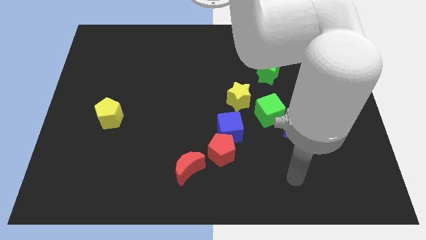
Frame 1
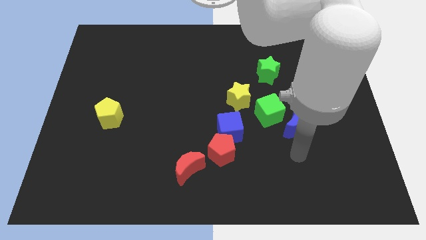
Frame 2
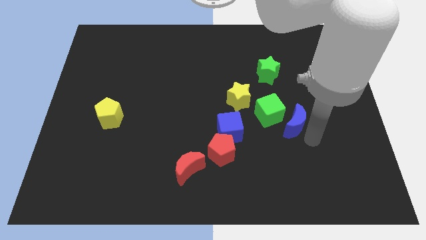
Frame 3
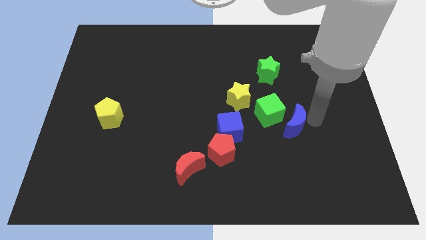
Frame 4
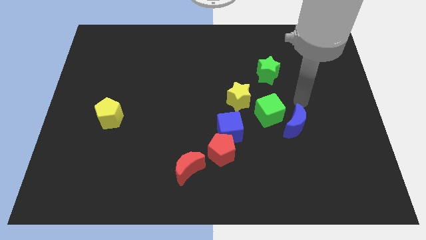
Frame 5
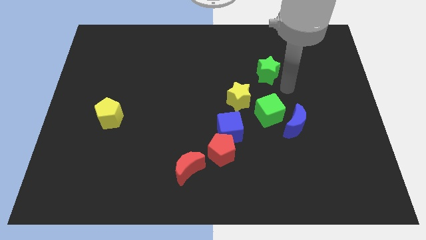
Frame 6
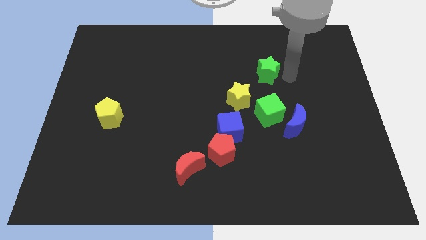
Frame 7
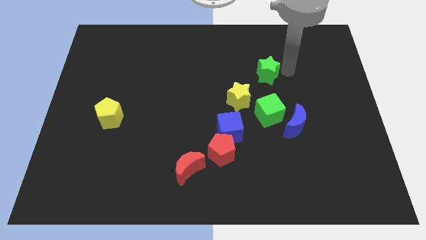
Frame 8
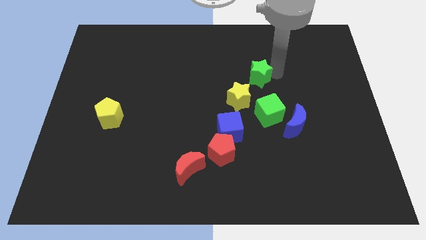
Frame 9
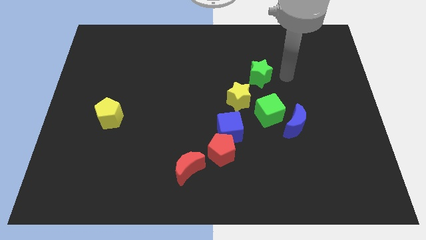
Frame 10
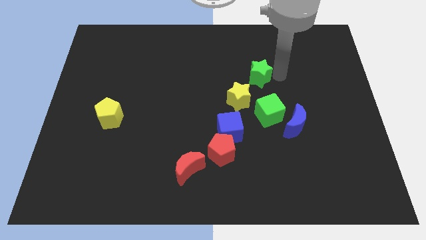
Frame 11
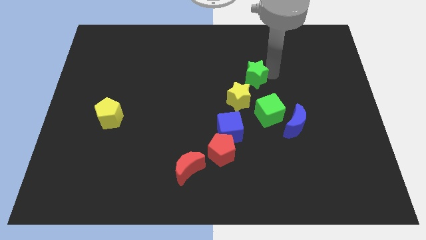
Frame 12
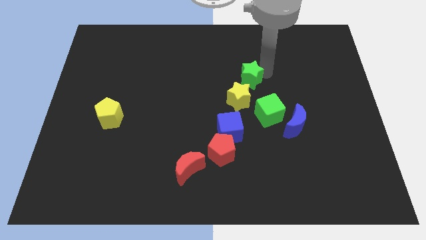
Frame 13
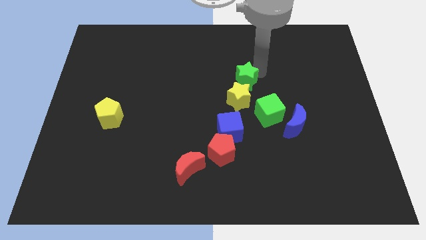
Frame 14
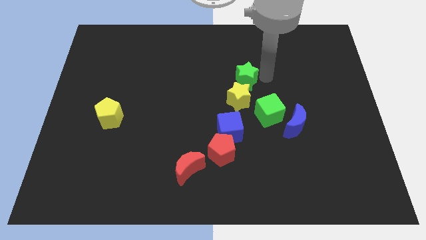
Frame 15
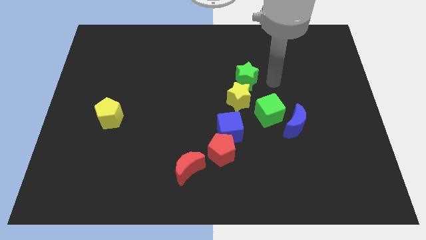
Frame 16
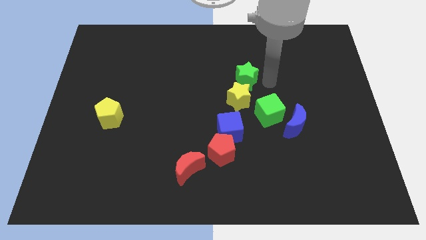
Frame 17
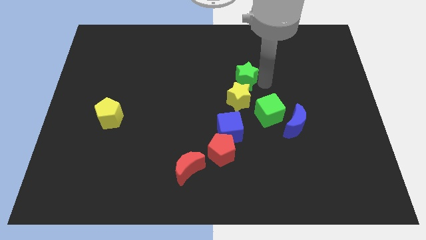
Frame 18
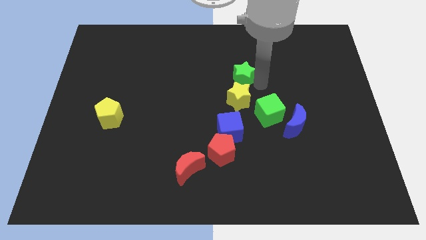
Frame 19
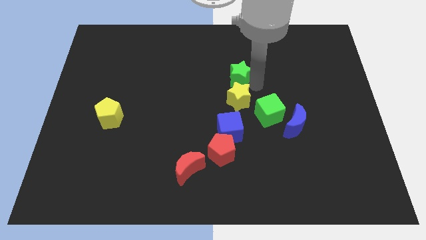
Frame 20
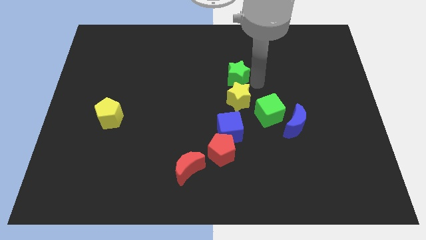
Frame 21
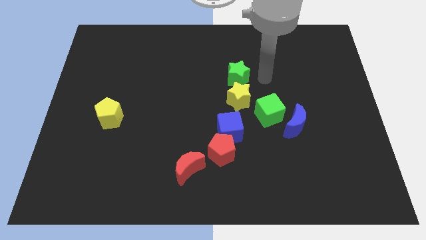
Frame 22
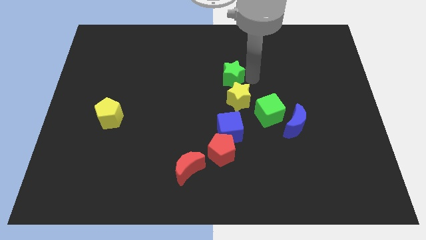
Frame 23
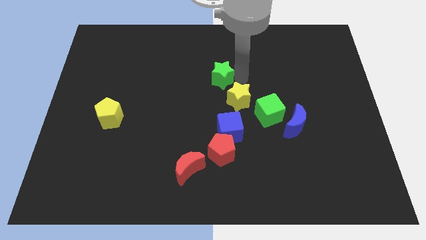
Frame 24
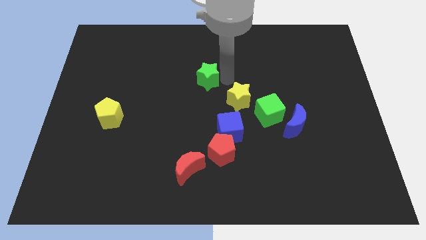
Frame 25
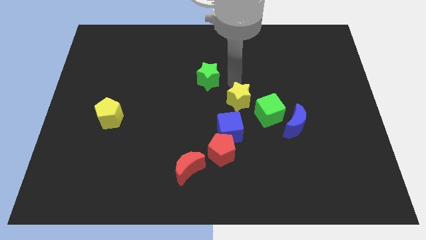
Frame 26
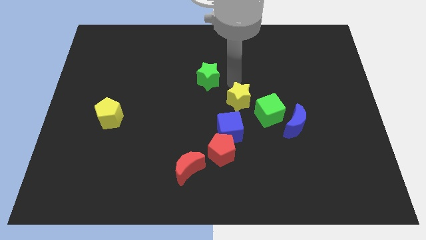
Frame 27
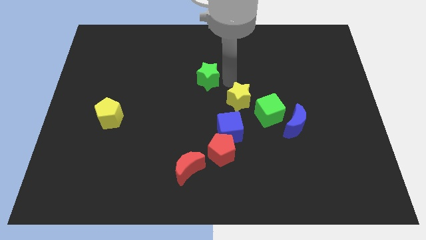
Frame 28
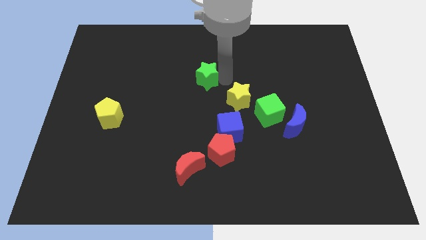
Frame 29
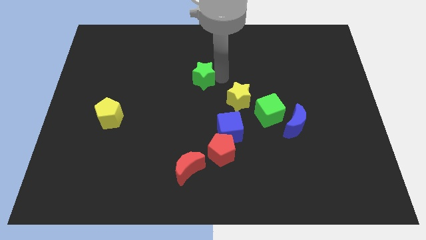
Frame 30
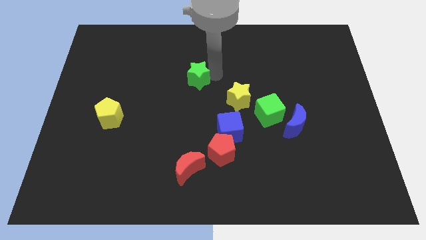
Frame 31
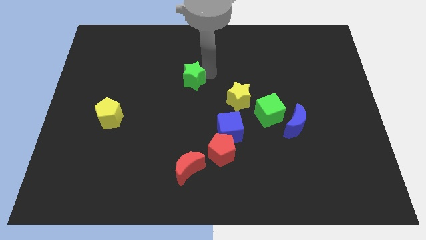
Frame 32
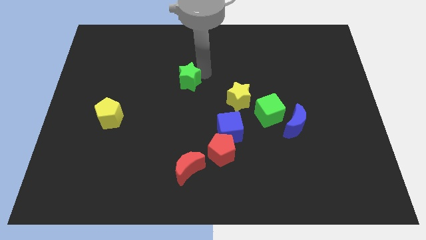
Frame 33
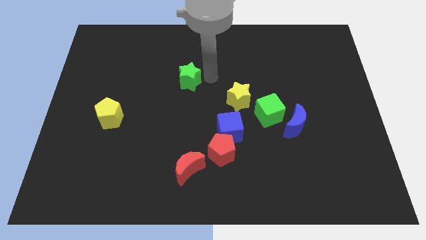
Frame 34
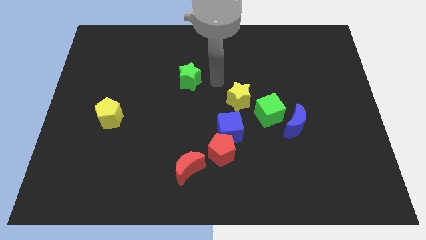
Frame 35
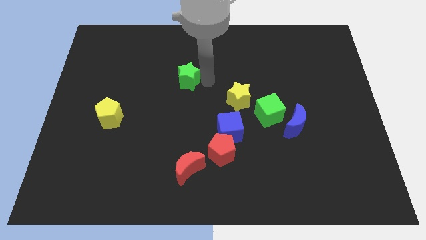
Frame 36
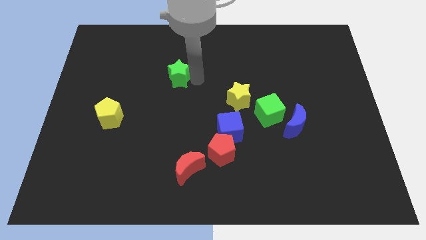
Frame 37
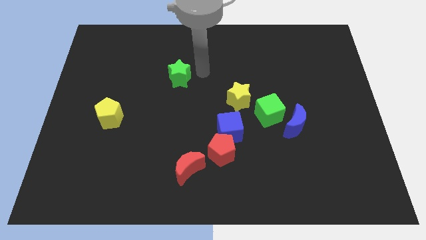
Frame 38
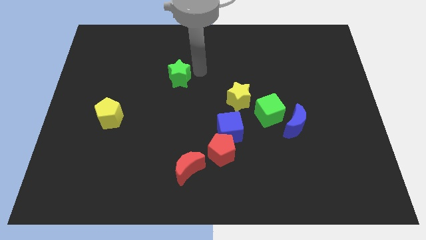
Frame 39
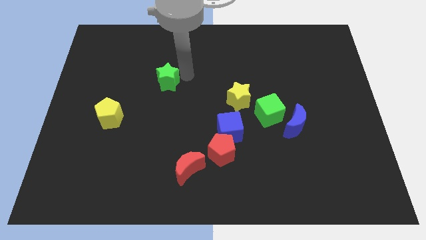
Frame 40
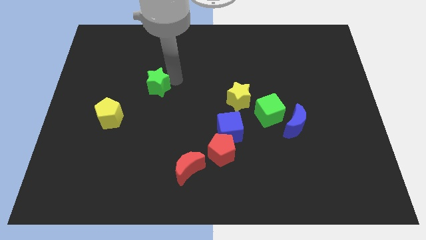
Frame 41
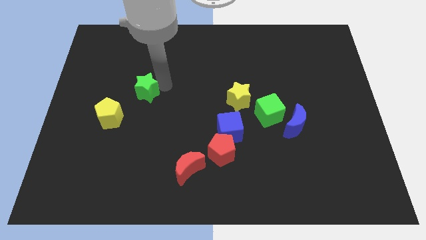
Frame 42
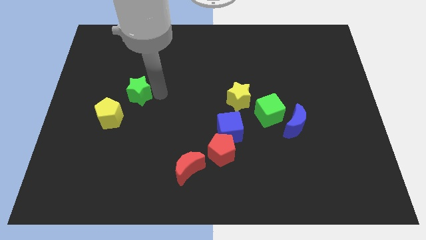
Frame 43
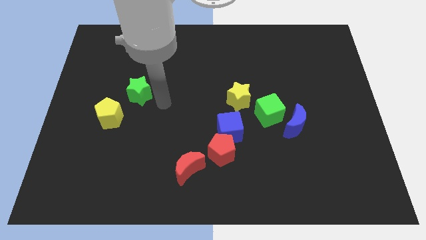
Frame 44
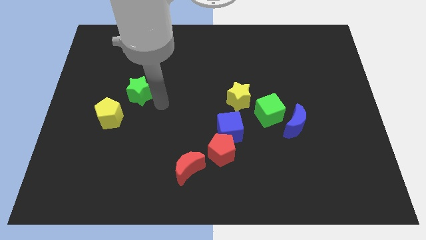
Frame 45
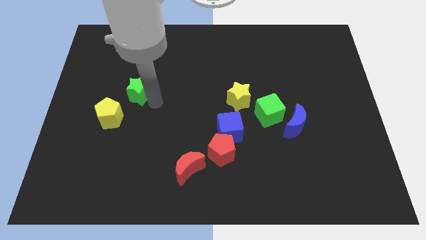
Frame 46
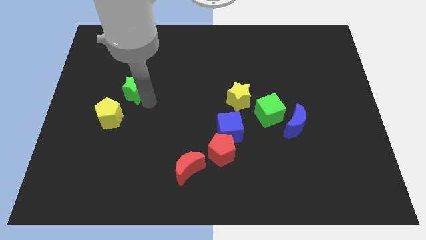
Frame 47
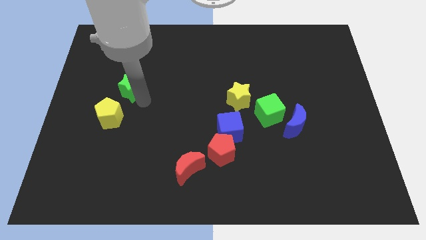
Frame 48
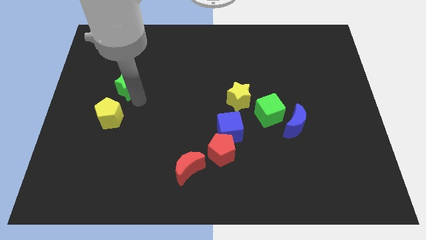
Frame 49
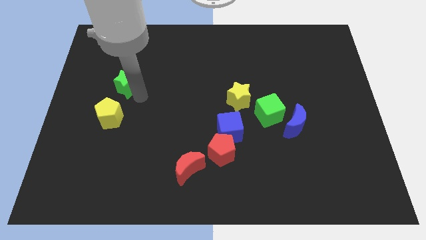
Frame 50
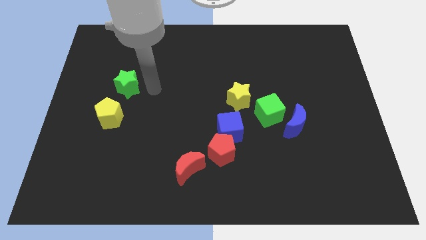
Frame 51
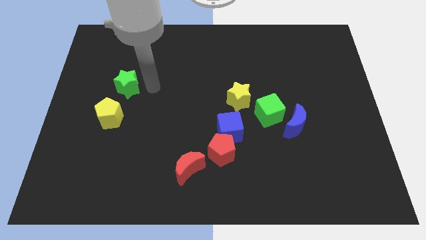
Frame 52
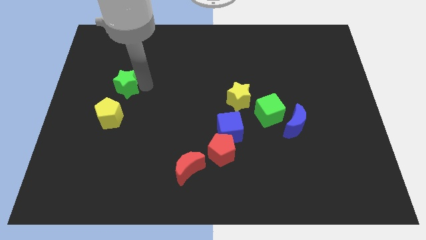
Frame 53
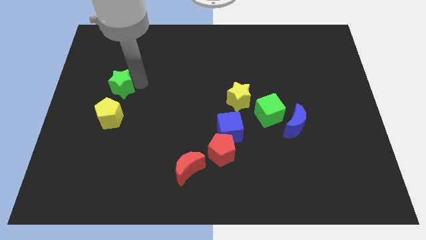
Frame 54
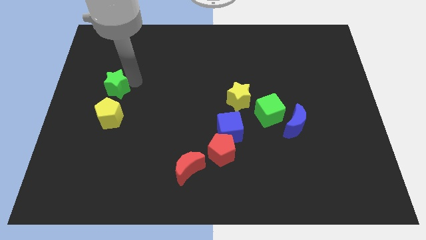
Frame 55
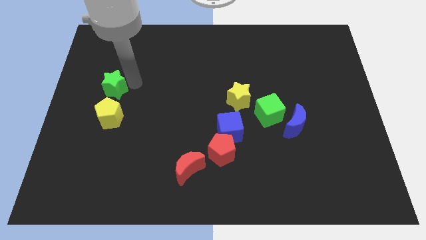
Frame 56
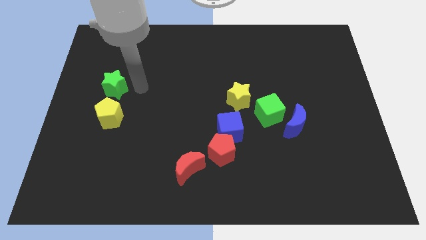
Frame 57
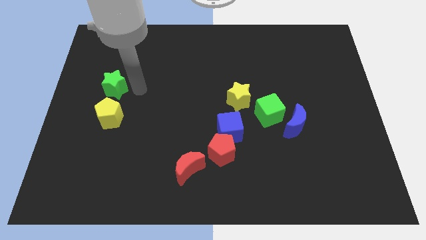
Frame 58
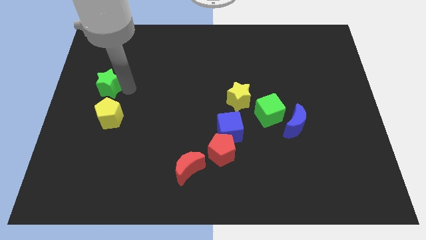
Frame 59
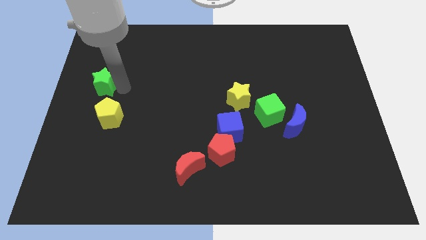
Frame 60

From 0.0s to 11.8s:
slide the green star to the left side

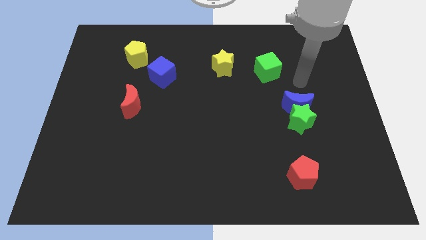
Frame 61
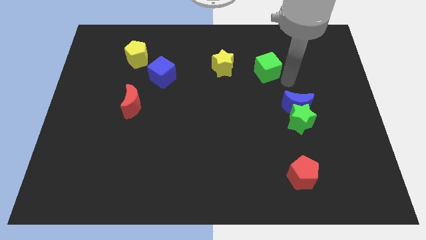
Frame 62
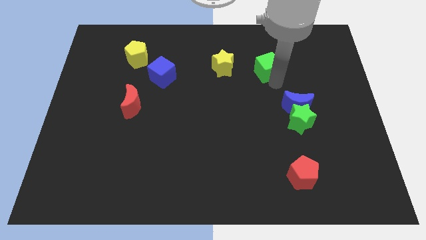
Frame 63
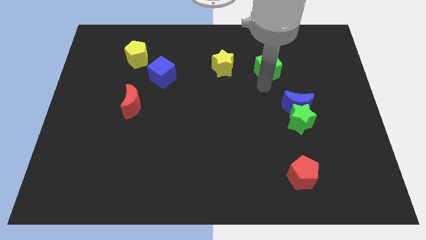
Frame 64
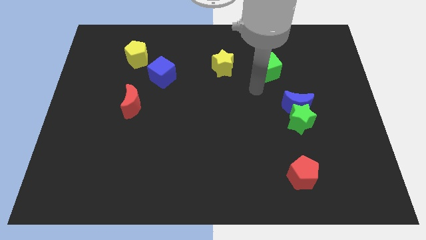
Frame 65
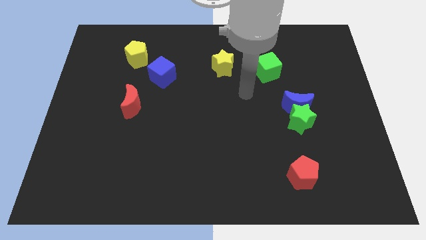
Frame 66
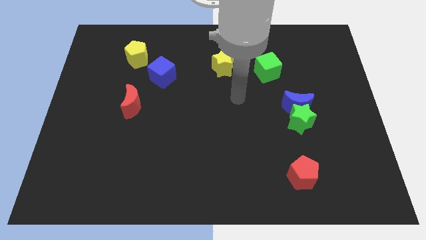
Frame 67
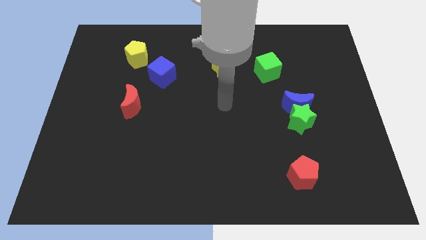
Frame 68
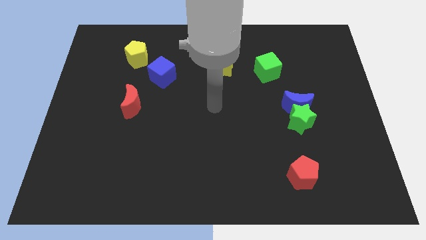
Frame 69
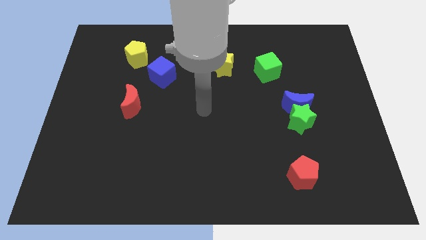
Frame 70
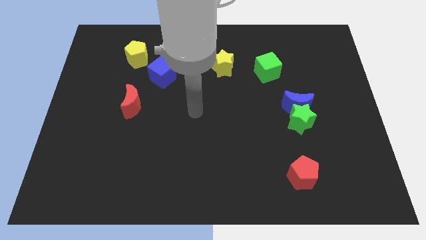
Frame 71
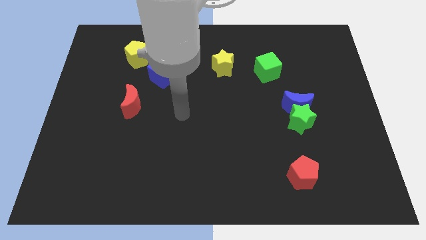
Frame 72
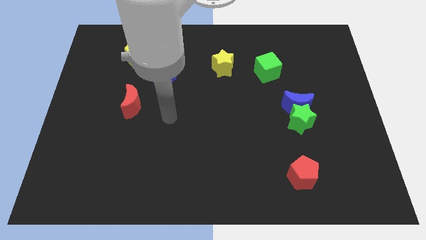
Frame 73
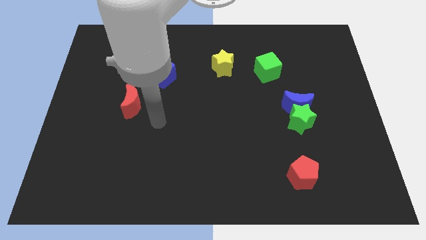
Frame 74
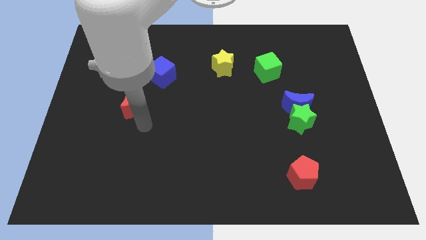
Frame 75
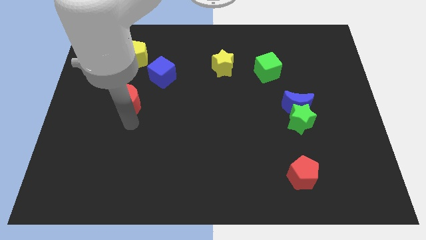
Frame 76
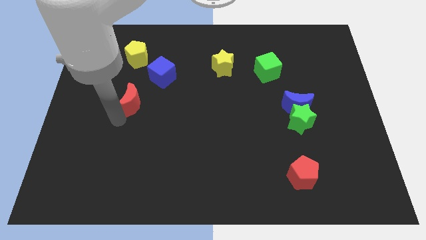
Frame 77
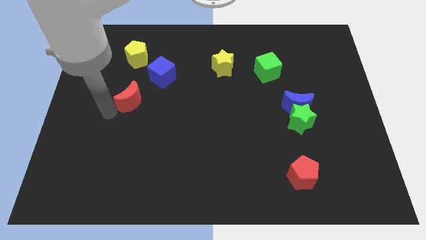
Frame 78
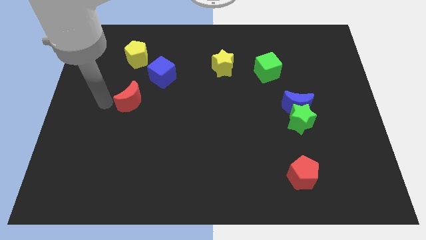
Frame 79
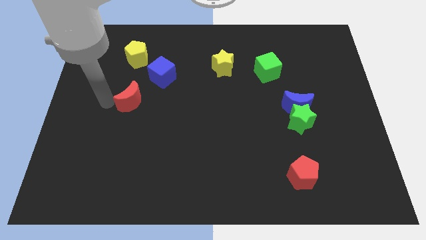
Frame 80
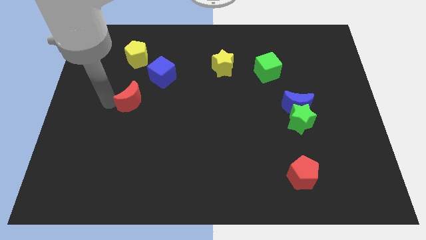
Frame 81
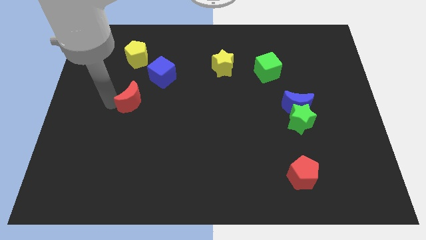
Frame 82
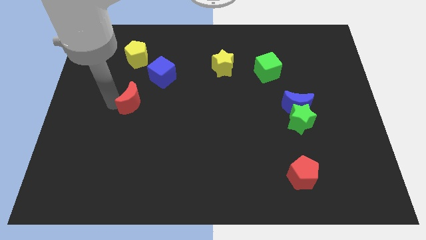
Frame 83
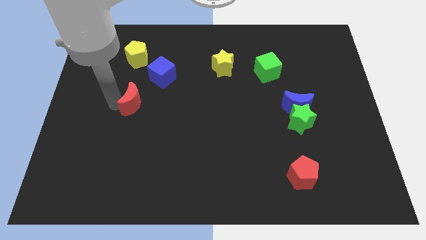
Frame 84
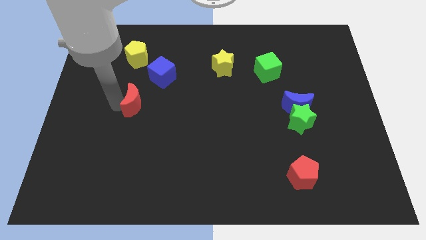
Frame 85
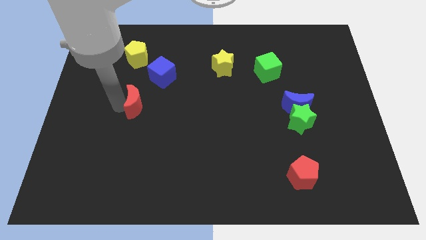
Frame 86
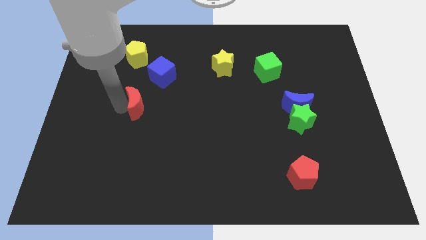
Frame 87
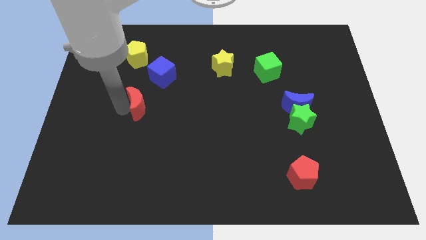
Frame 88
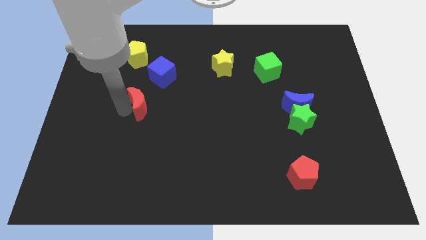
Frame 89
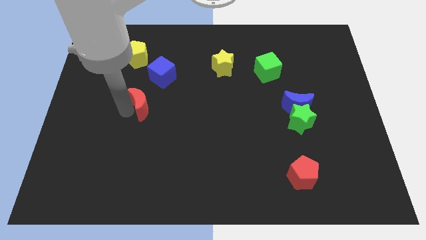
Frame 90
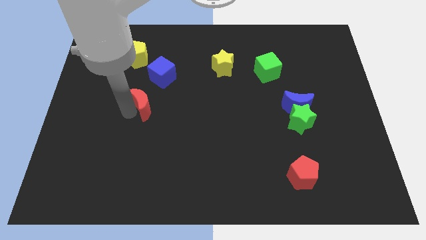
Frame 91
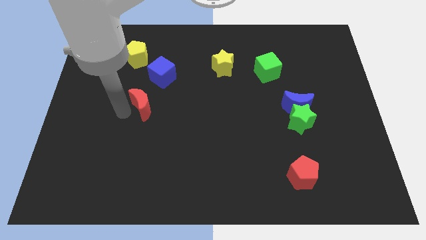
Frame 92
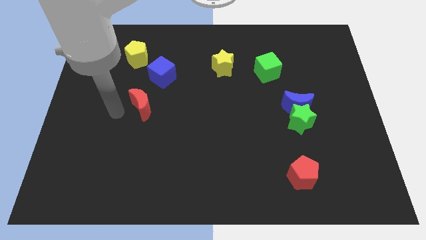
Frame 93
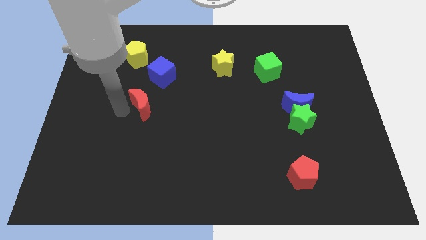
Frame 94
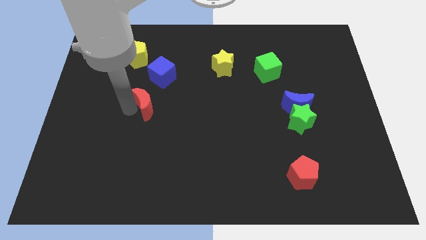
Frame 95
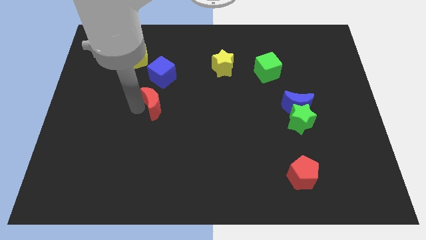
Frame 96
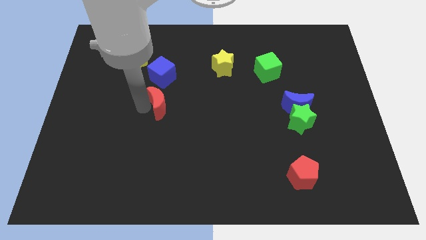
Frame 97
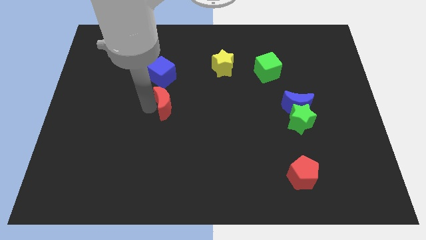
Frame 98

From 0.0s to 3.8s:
put the red moon to the middle
